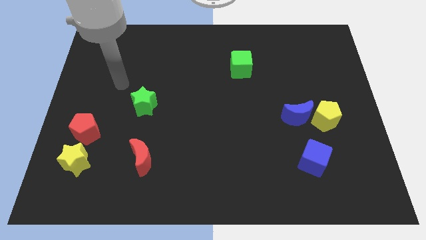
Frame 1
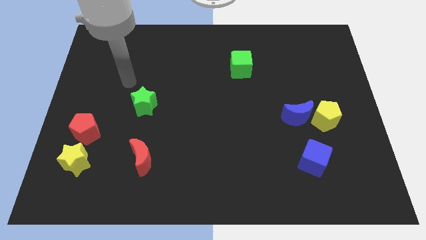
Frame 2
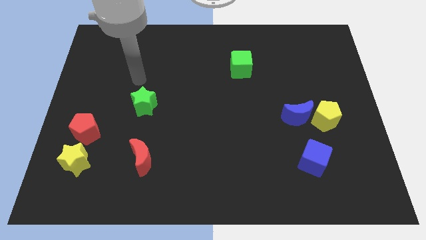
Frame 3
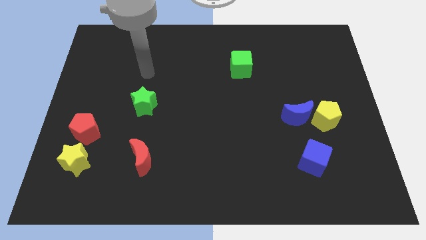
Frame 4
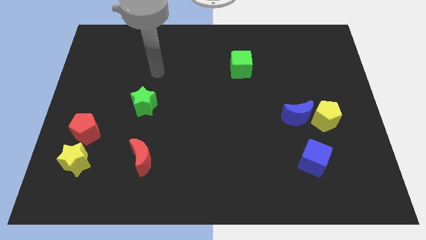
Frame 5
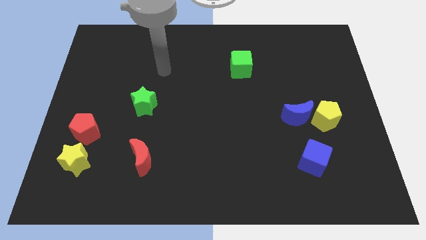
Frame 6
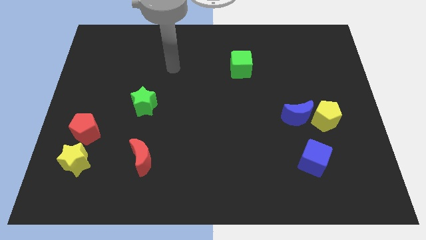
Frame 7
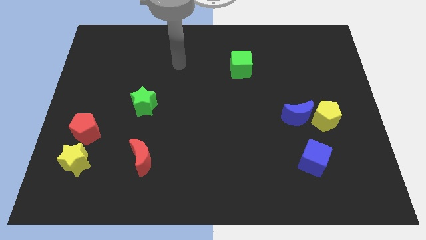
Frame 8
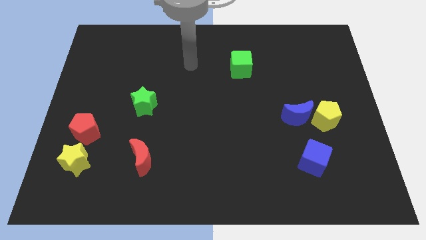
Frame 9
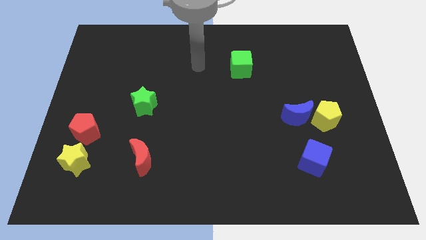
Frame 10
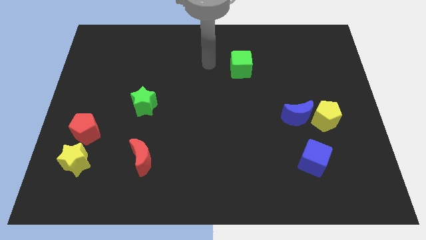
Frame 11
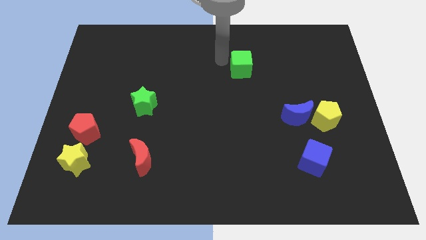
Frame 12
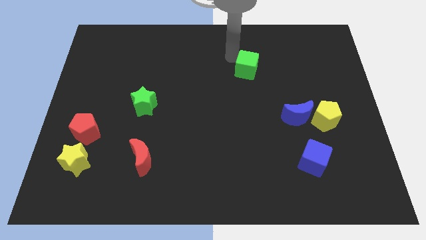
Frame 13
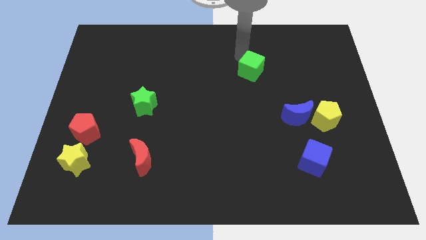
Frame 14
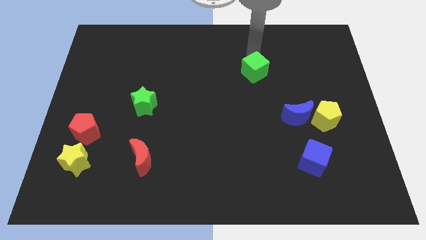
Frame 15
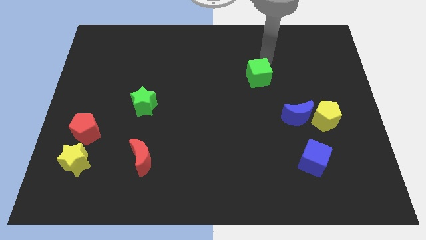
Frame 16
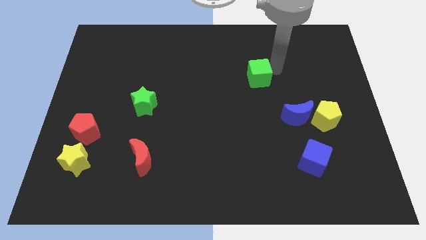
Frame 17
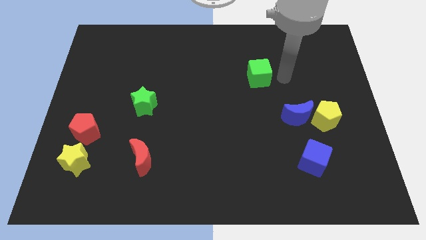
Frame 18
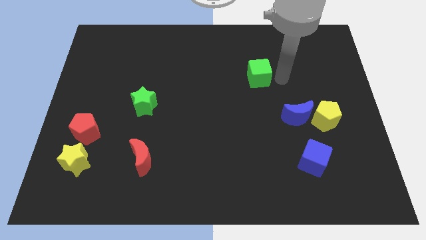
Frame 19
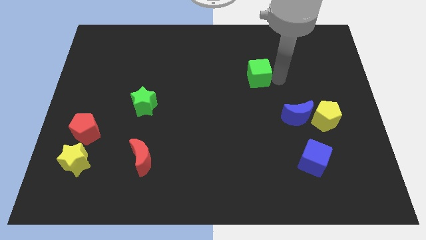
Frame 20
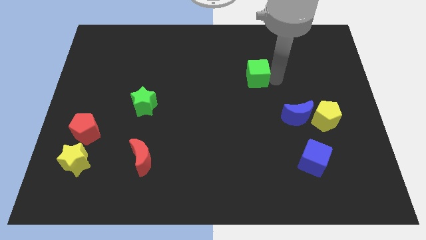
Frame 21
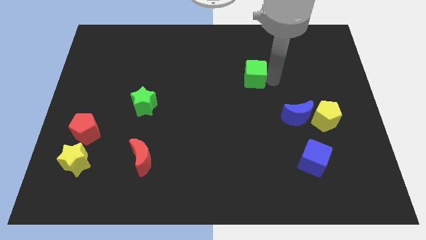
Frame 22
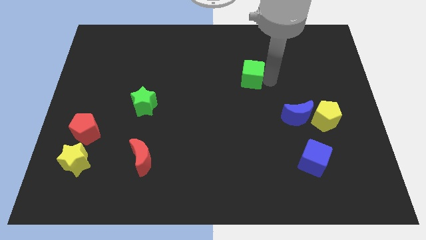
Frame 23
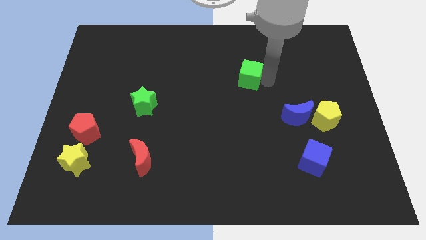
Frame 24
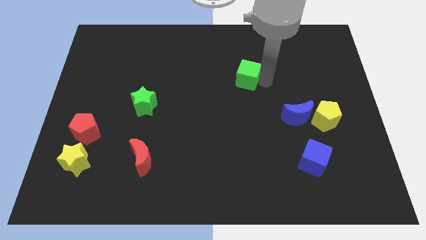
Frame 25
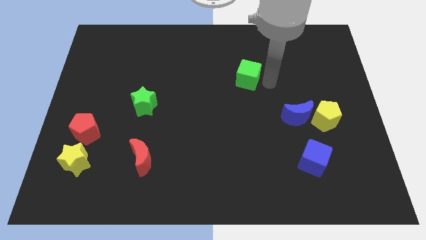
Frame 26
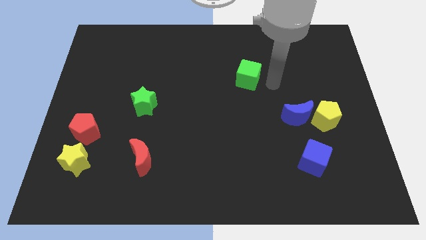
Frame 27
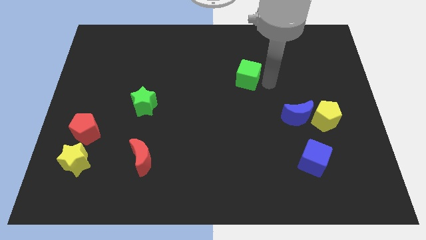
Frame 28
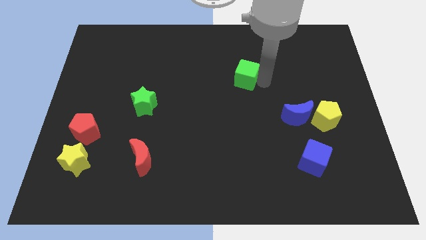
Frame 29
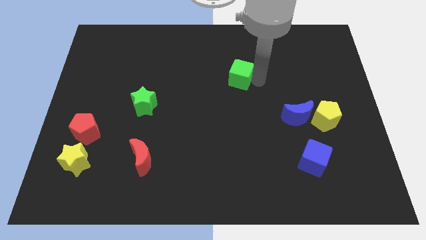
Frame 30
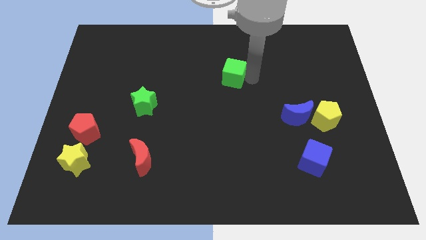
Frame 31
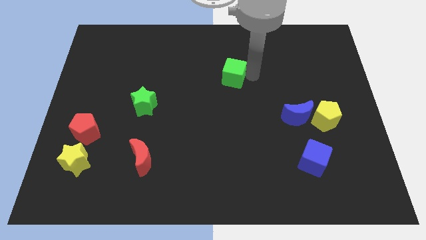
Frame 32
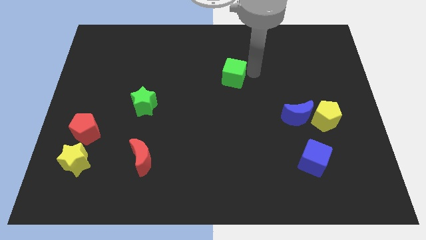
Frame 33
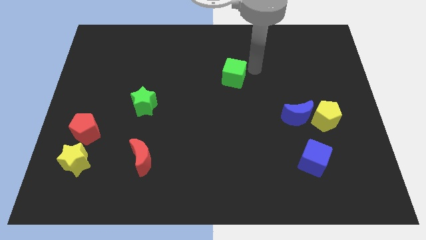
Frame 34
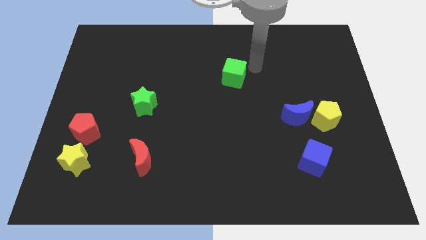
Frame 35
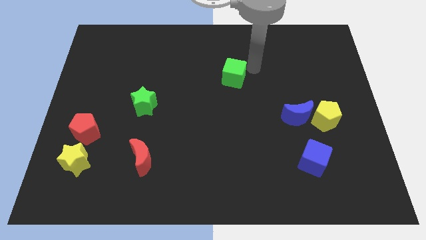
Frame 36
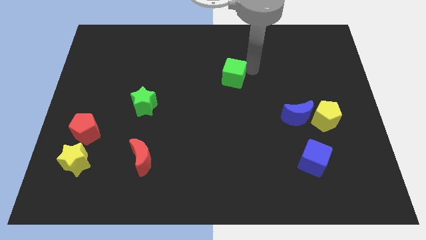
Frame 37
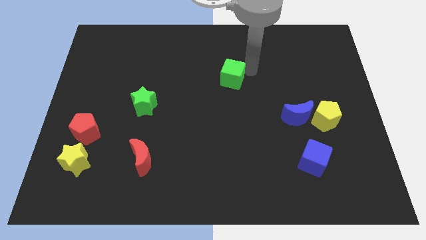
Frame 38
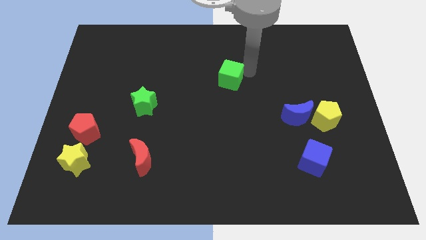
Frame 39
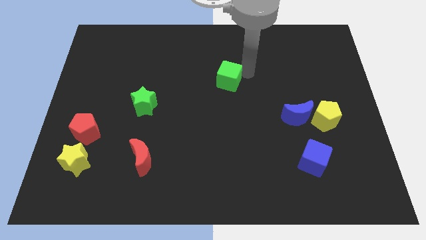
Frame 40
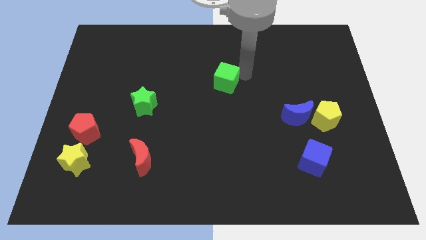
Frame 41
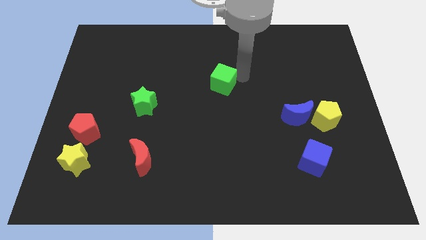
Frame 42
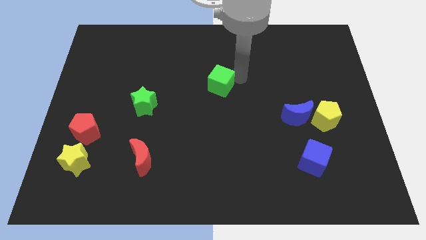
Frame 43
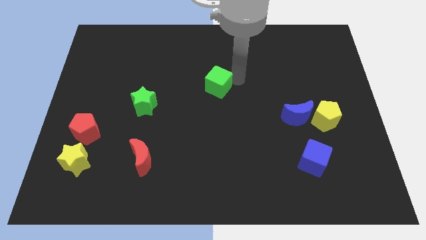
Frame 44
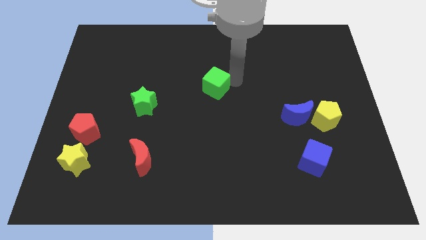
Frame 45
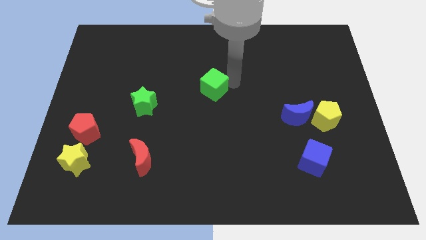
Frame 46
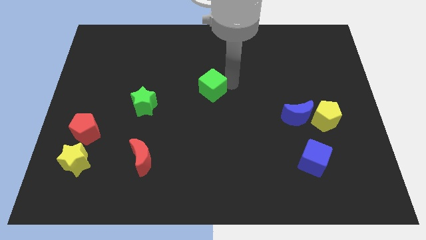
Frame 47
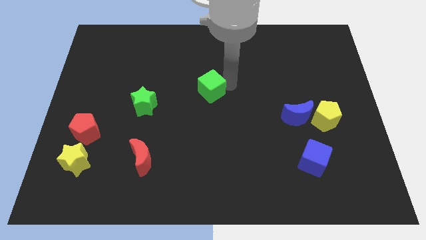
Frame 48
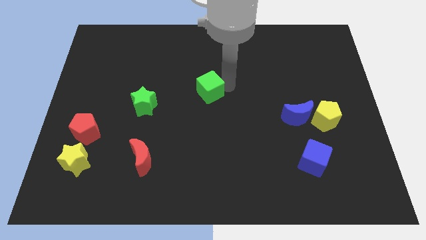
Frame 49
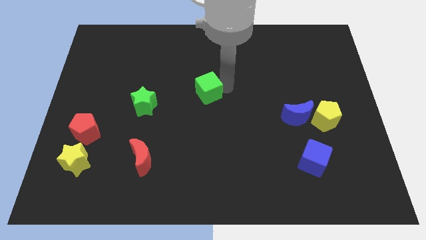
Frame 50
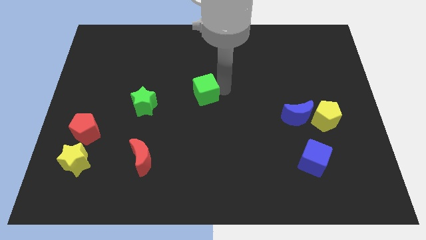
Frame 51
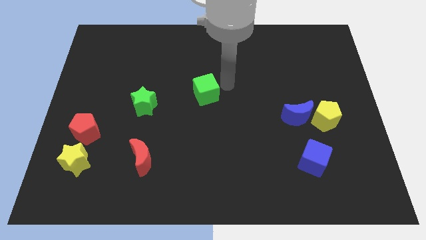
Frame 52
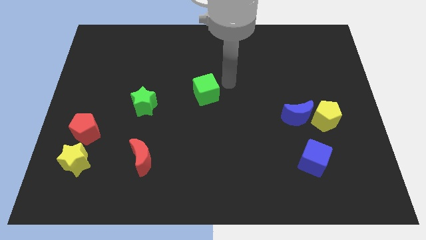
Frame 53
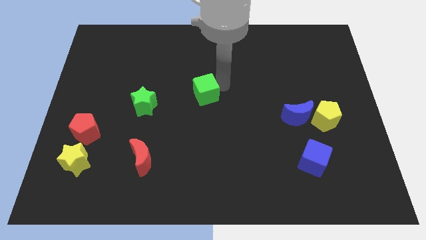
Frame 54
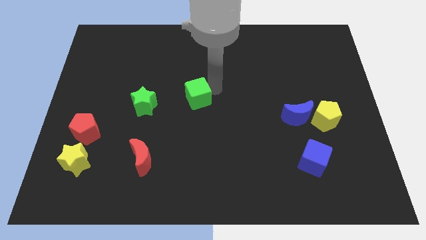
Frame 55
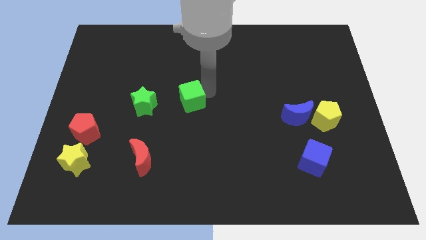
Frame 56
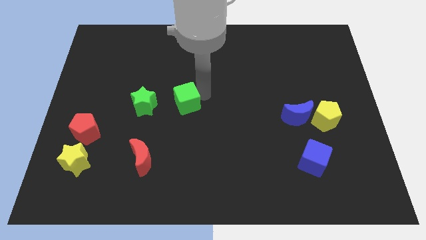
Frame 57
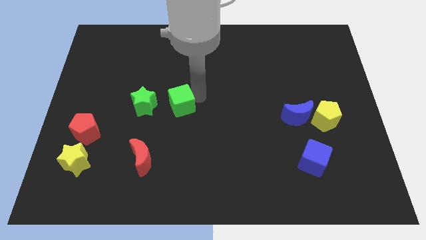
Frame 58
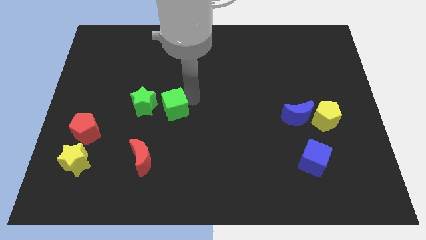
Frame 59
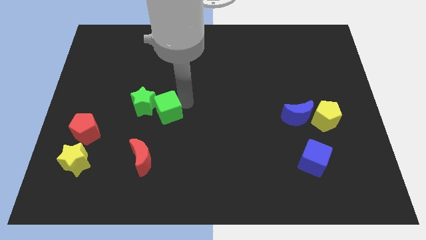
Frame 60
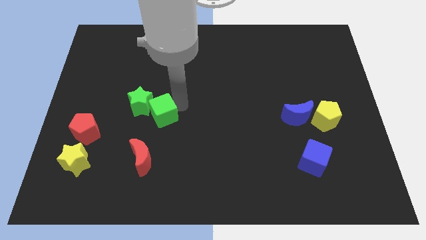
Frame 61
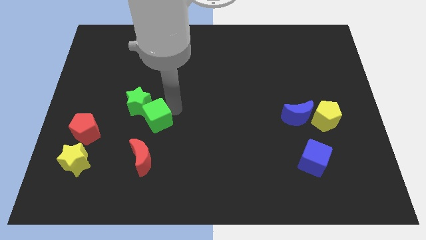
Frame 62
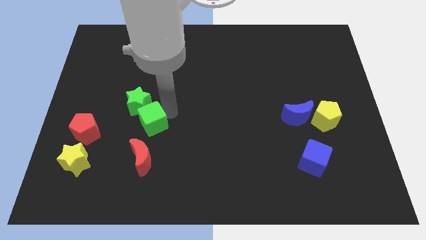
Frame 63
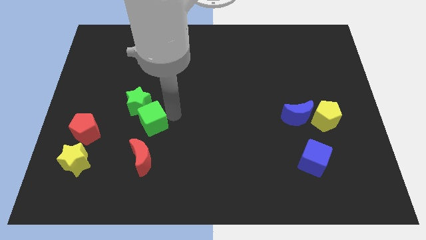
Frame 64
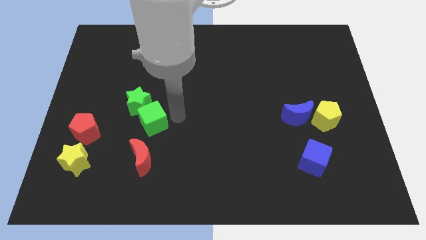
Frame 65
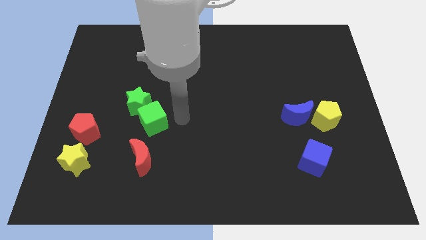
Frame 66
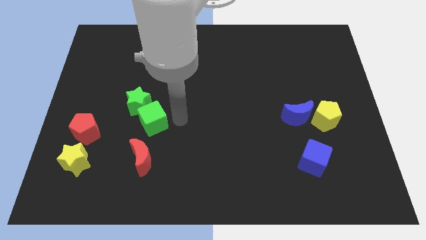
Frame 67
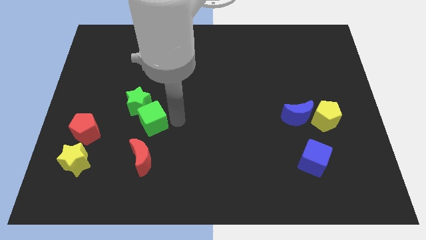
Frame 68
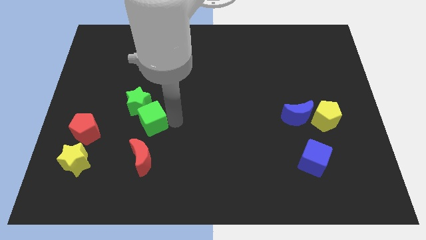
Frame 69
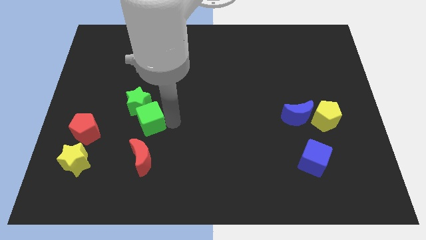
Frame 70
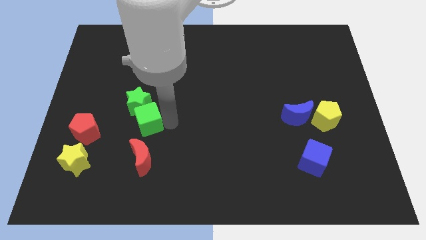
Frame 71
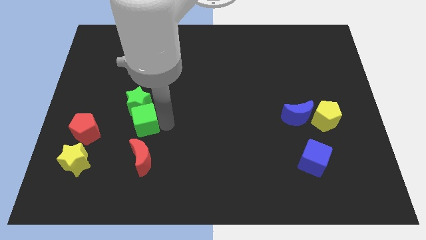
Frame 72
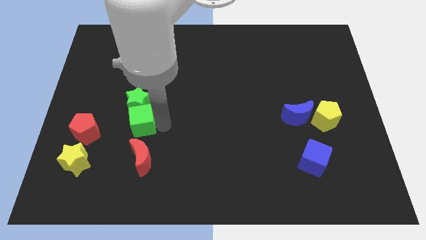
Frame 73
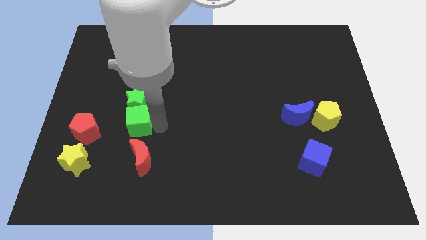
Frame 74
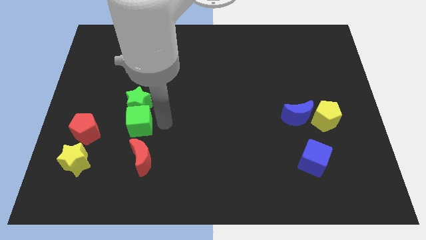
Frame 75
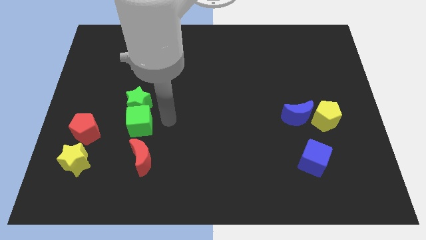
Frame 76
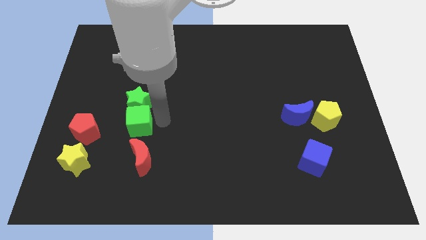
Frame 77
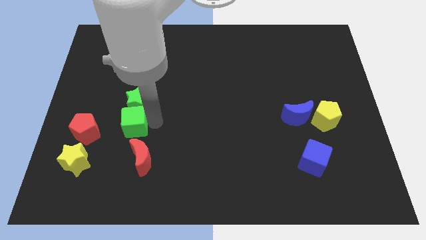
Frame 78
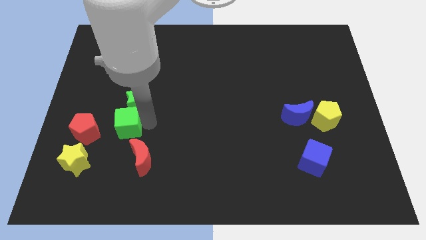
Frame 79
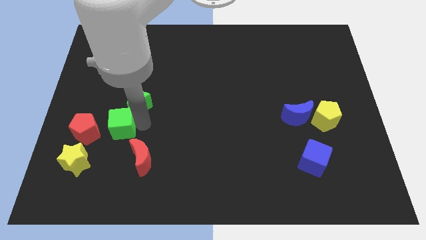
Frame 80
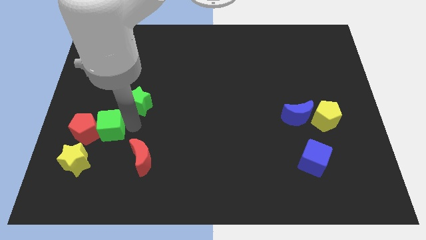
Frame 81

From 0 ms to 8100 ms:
move the green cube next to the red pentagon
